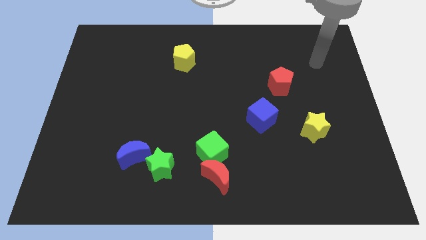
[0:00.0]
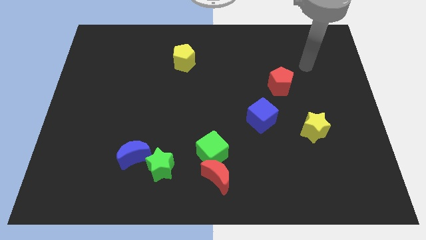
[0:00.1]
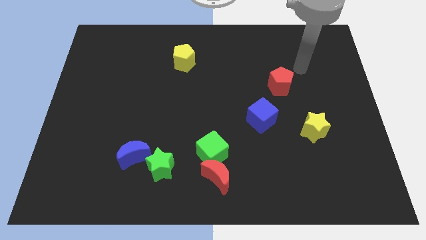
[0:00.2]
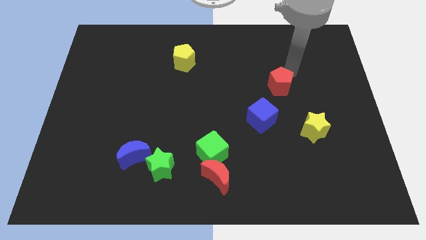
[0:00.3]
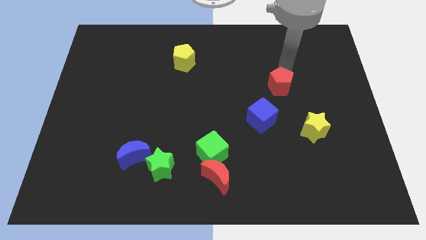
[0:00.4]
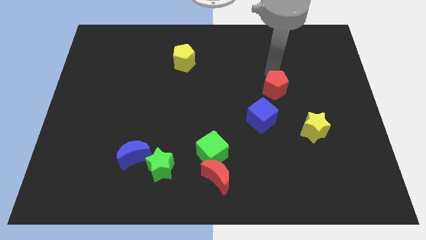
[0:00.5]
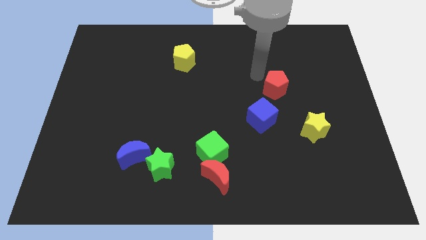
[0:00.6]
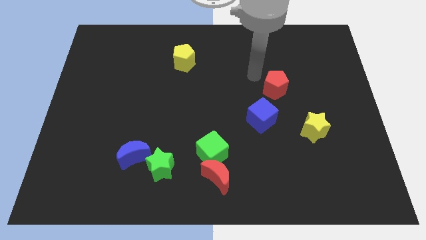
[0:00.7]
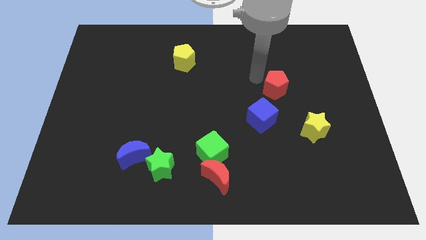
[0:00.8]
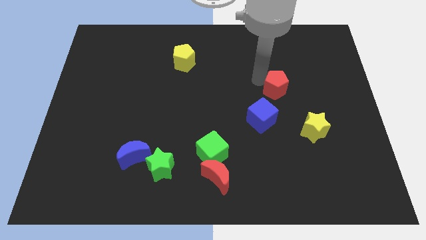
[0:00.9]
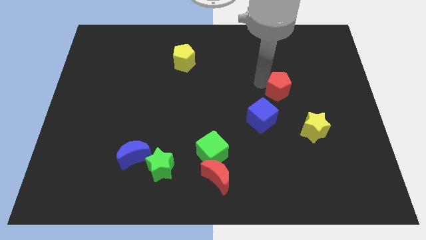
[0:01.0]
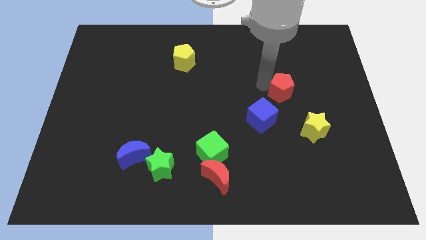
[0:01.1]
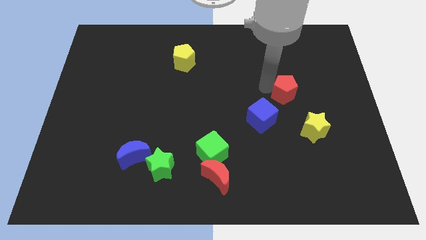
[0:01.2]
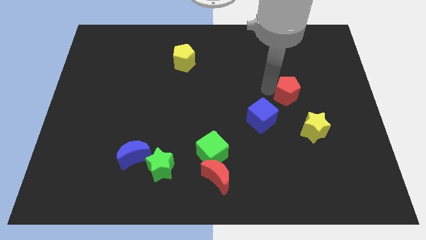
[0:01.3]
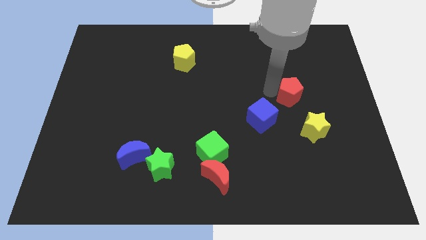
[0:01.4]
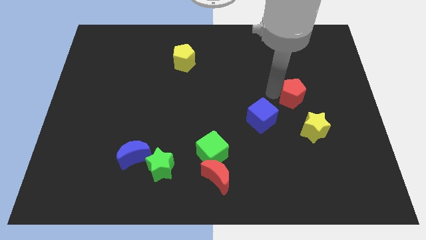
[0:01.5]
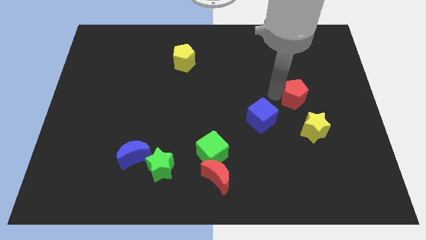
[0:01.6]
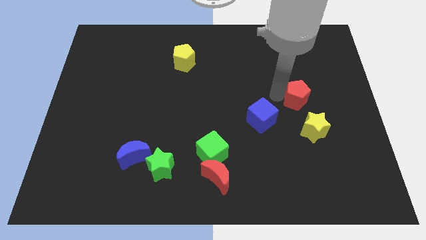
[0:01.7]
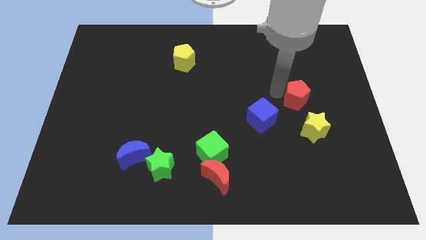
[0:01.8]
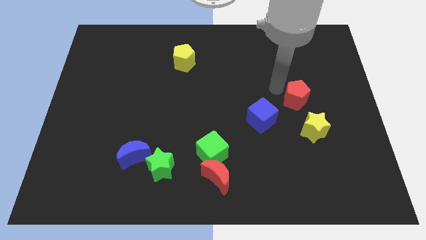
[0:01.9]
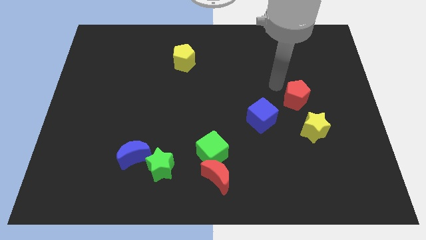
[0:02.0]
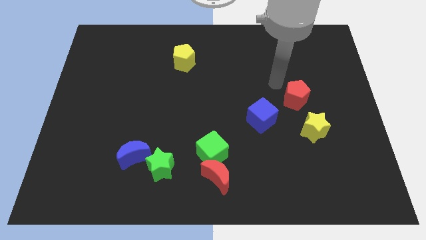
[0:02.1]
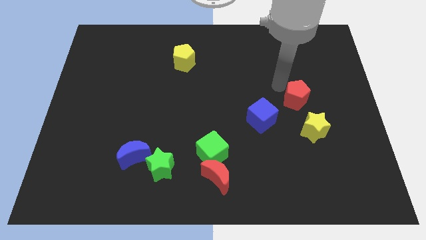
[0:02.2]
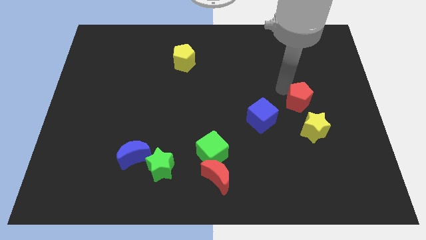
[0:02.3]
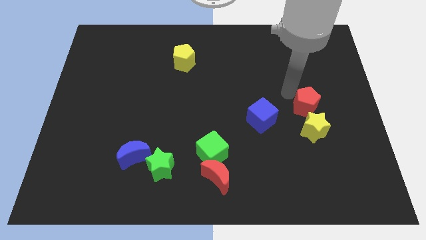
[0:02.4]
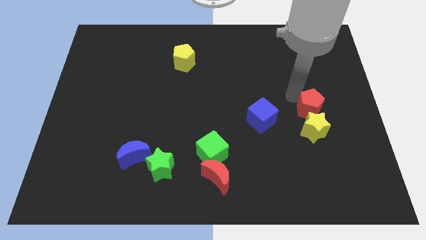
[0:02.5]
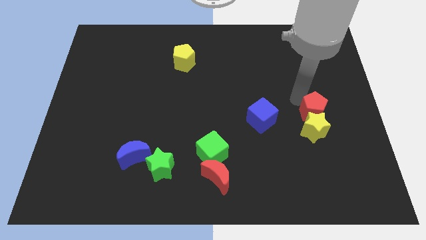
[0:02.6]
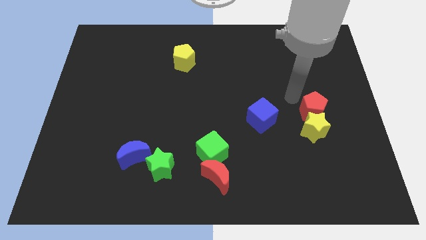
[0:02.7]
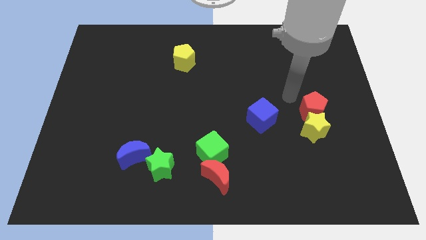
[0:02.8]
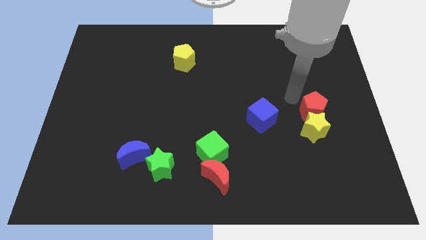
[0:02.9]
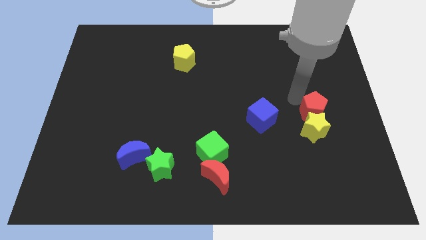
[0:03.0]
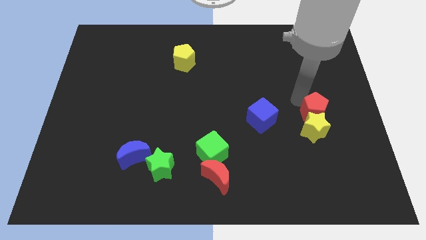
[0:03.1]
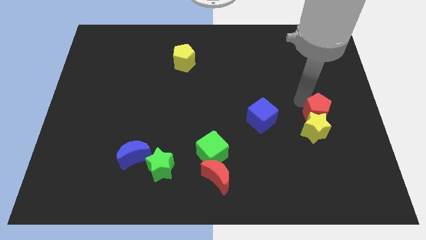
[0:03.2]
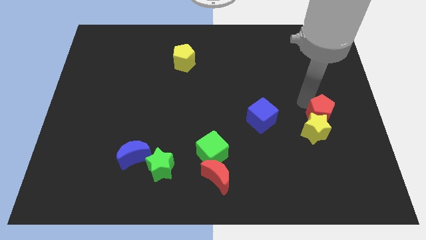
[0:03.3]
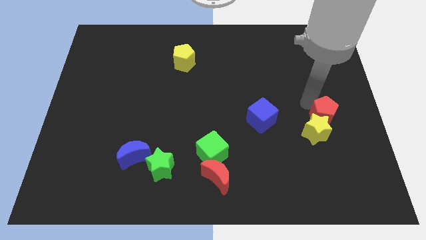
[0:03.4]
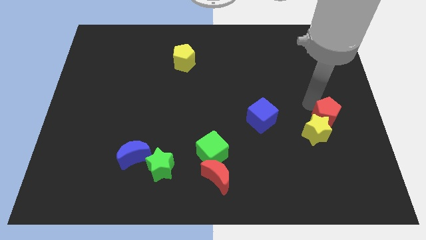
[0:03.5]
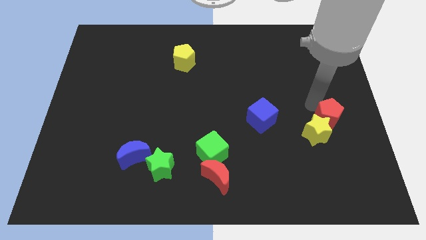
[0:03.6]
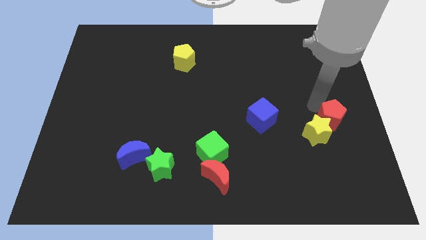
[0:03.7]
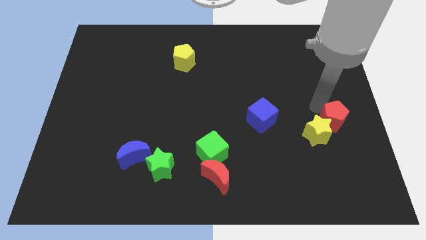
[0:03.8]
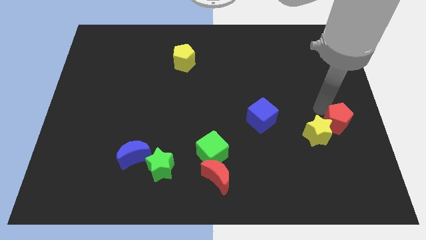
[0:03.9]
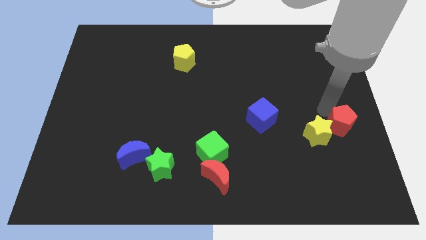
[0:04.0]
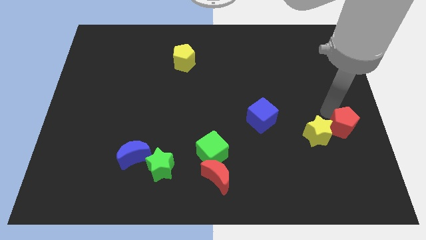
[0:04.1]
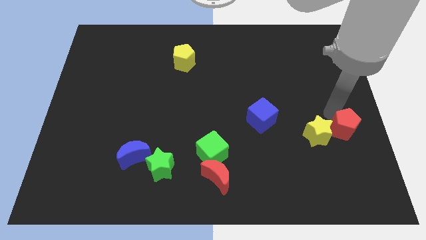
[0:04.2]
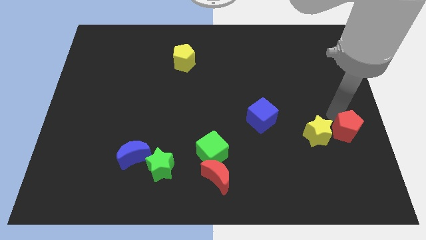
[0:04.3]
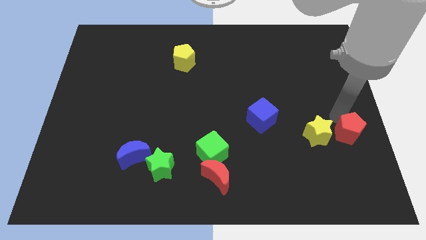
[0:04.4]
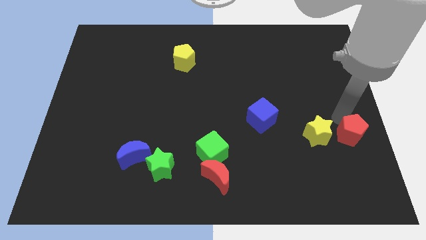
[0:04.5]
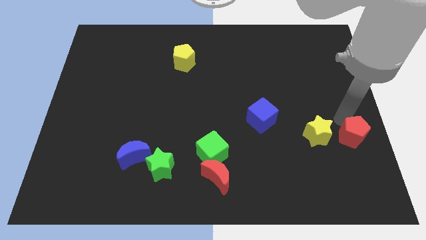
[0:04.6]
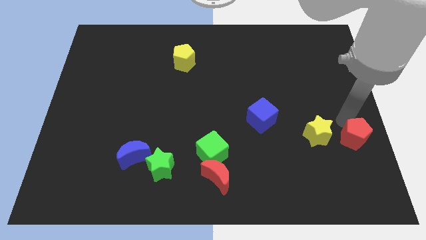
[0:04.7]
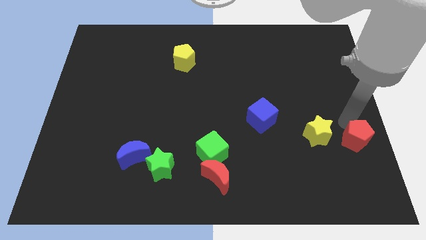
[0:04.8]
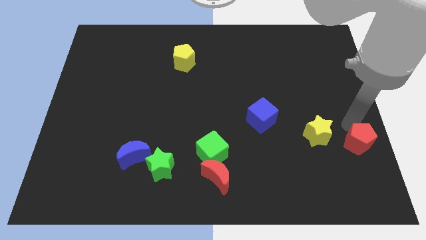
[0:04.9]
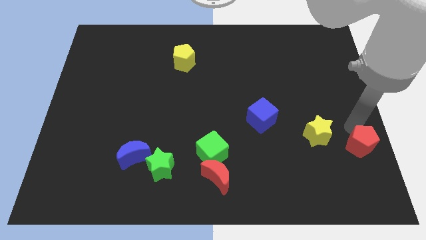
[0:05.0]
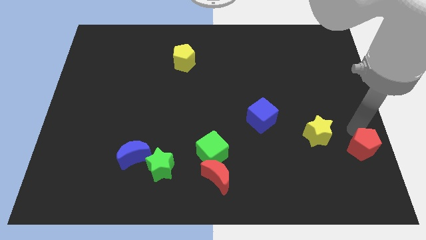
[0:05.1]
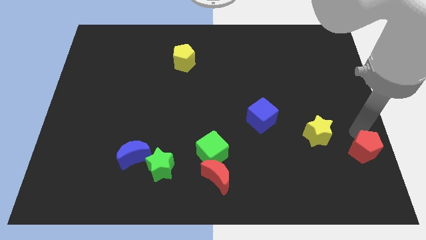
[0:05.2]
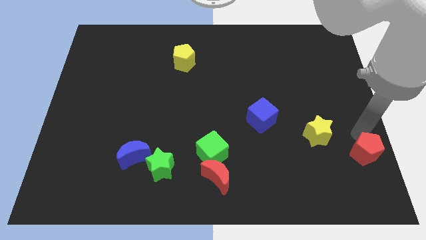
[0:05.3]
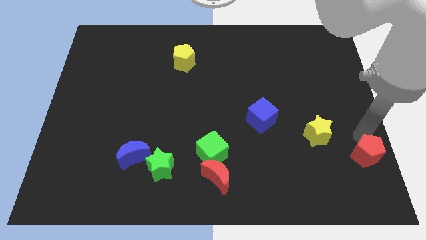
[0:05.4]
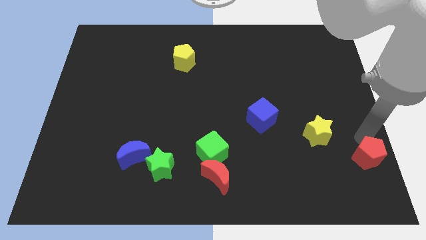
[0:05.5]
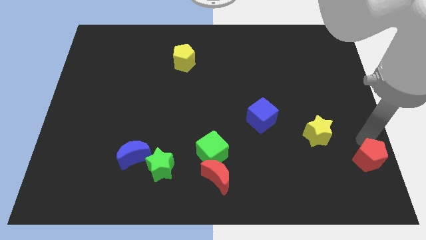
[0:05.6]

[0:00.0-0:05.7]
put the red pentagon to the bottom right of the board
